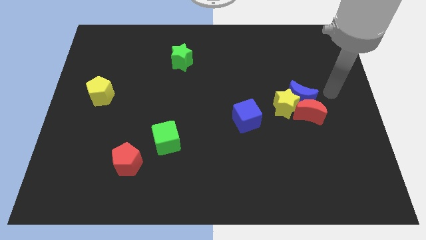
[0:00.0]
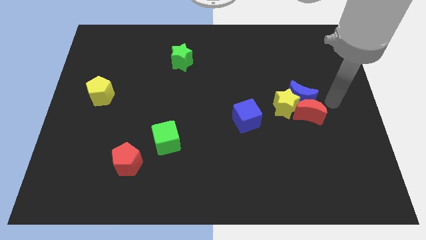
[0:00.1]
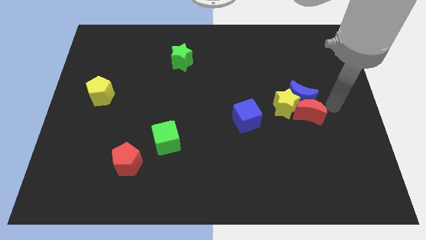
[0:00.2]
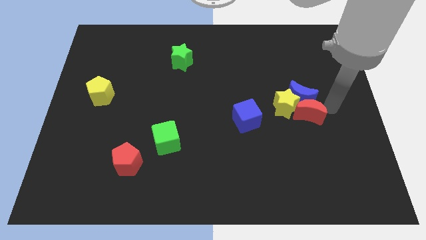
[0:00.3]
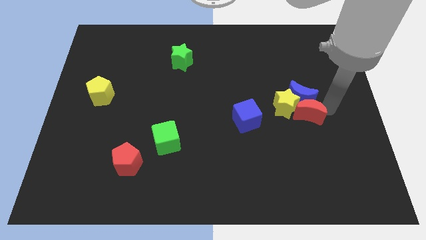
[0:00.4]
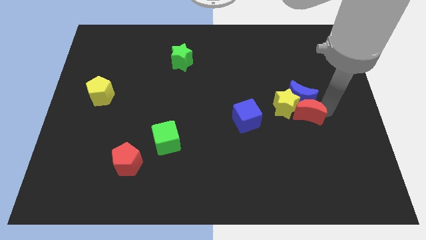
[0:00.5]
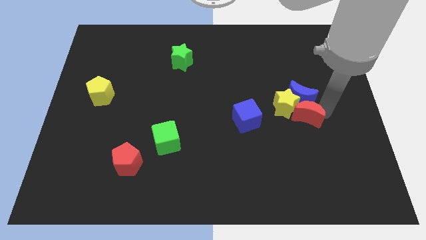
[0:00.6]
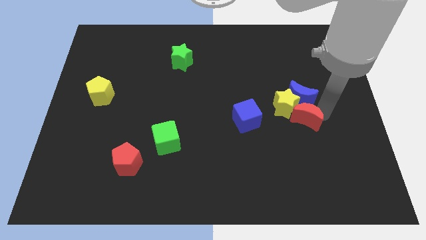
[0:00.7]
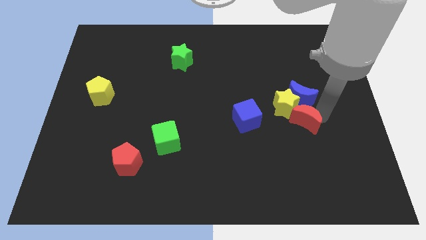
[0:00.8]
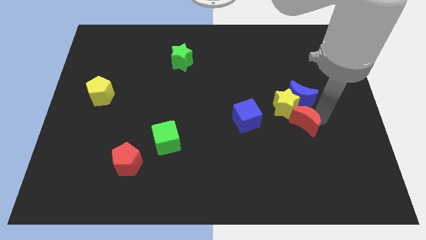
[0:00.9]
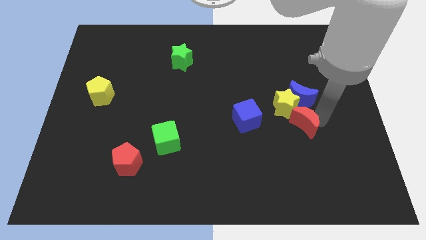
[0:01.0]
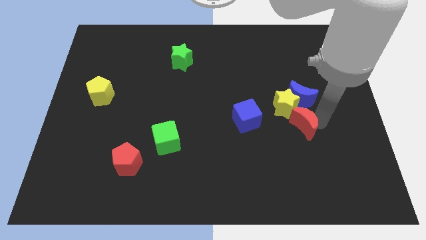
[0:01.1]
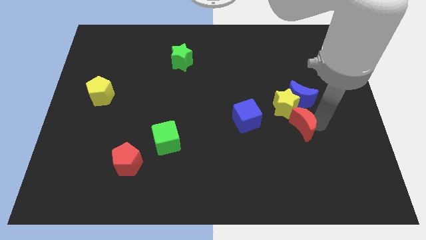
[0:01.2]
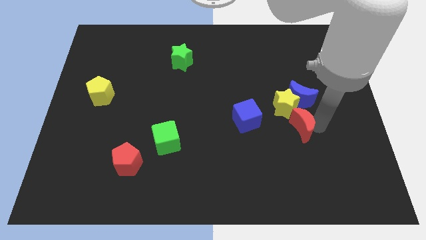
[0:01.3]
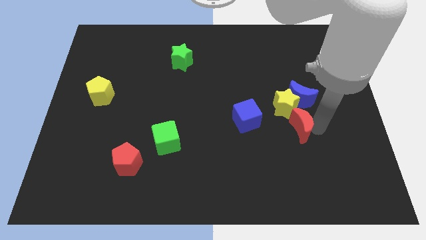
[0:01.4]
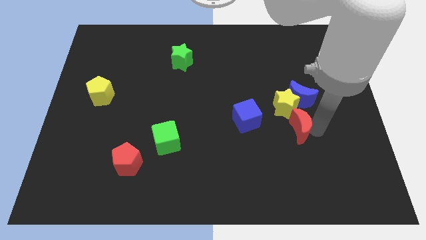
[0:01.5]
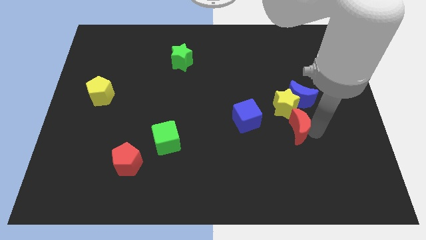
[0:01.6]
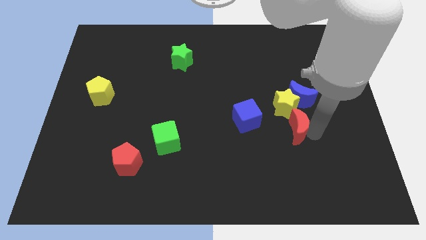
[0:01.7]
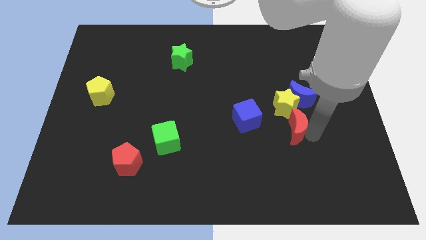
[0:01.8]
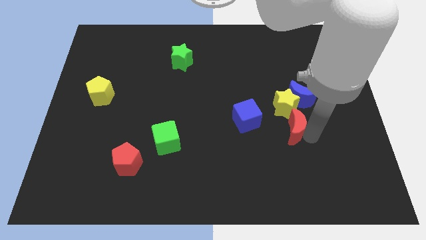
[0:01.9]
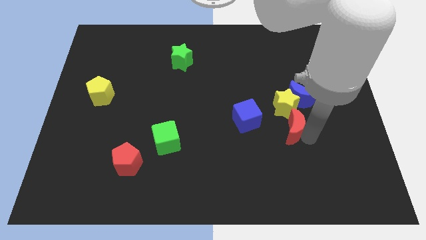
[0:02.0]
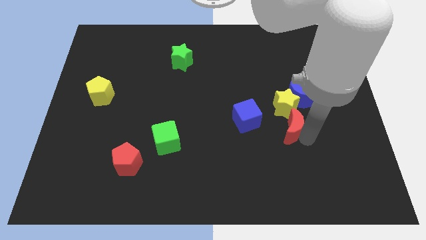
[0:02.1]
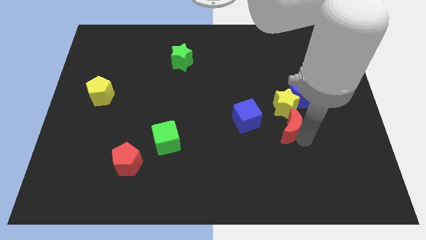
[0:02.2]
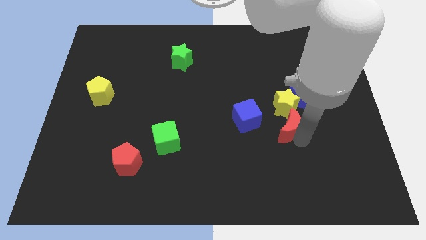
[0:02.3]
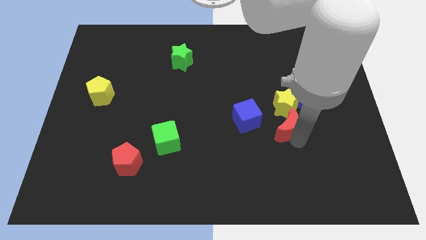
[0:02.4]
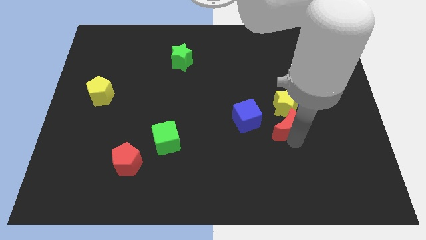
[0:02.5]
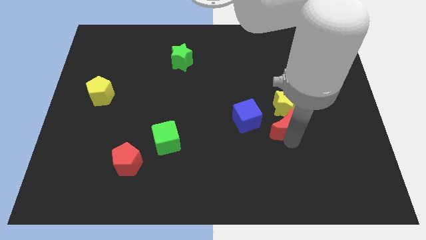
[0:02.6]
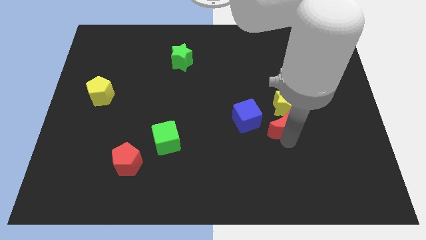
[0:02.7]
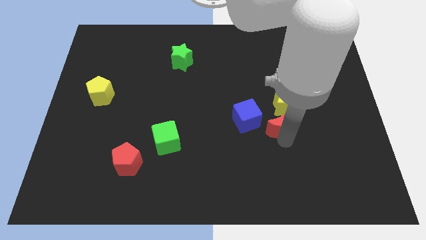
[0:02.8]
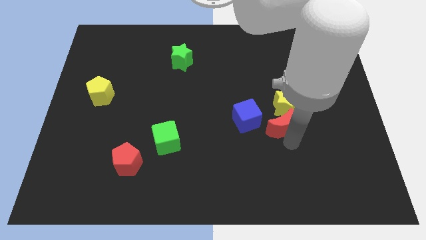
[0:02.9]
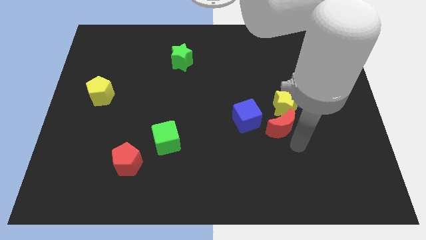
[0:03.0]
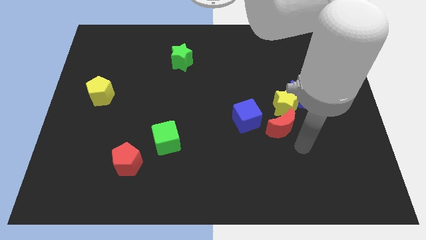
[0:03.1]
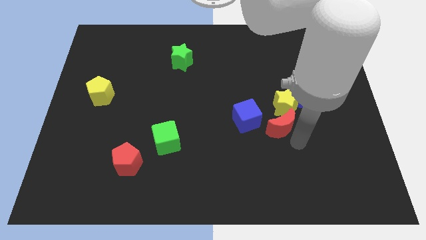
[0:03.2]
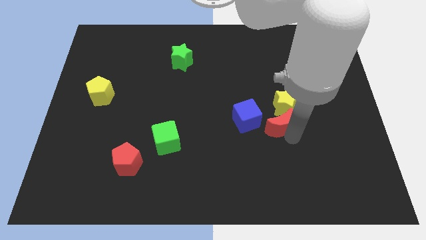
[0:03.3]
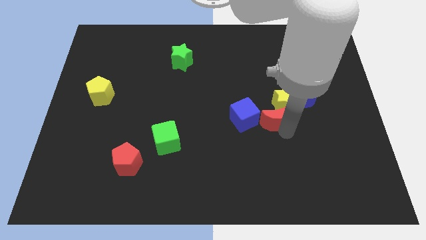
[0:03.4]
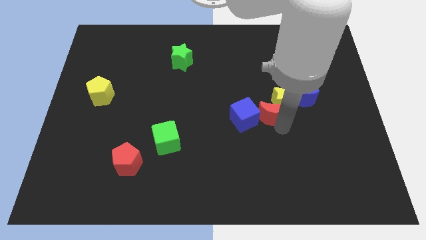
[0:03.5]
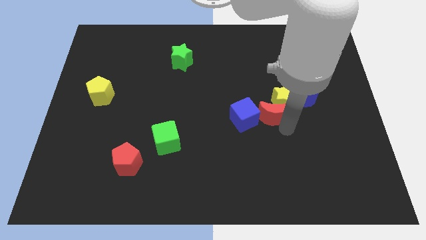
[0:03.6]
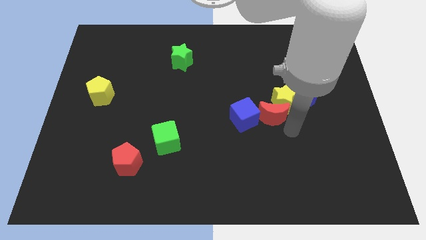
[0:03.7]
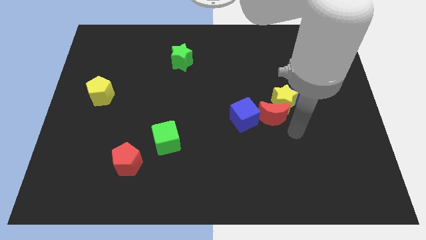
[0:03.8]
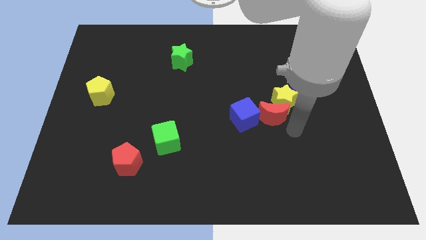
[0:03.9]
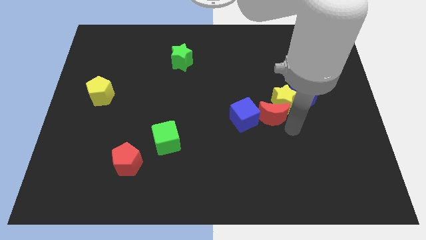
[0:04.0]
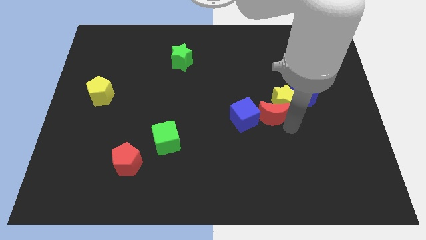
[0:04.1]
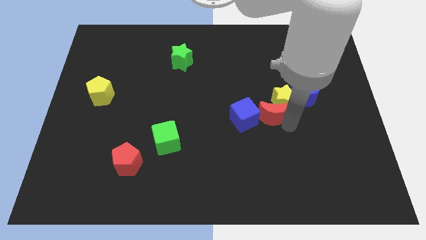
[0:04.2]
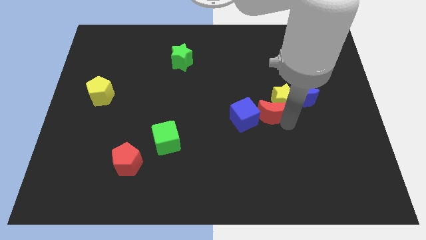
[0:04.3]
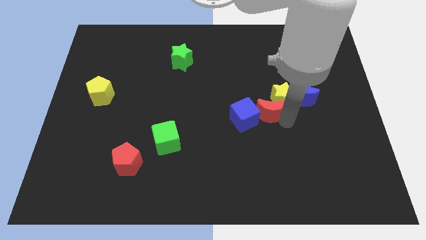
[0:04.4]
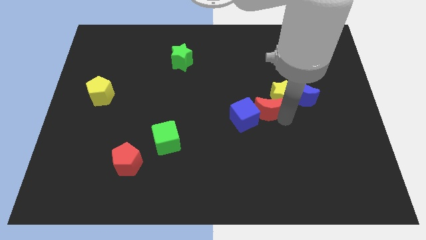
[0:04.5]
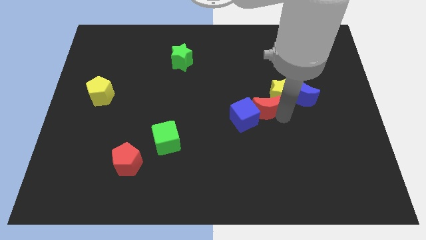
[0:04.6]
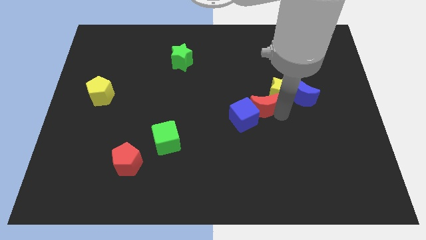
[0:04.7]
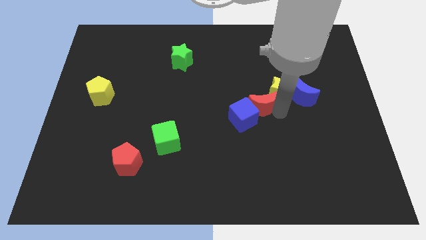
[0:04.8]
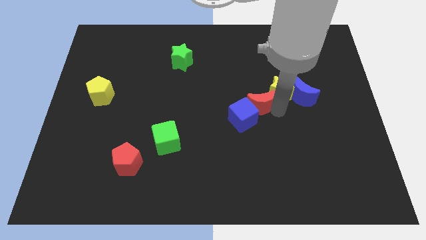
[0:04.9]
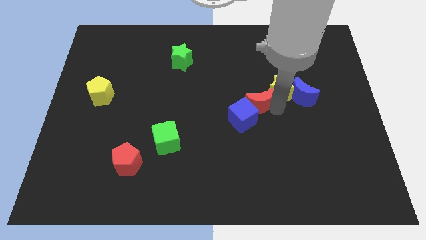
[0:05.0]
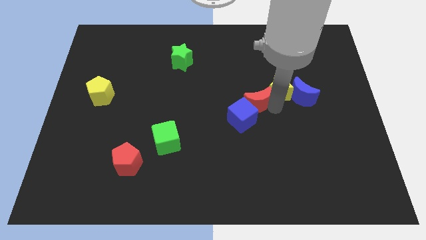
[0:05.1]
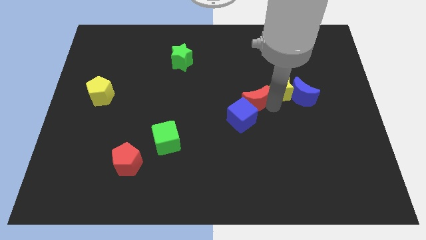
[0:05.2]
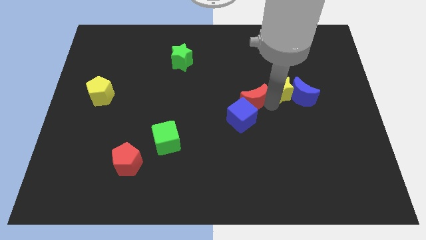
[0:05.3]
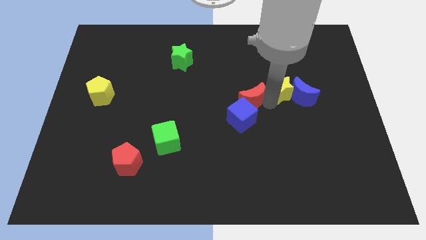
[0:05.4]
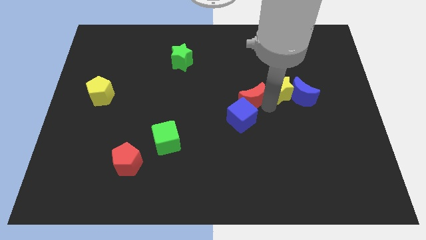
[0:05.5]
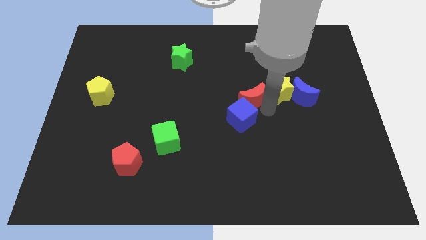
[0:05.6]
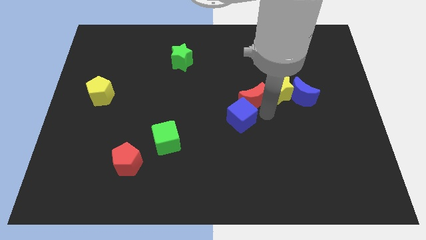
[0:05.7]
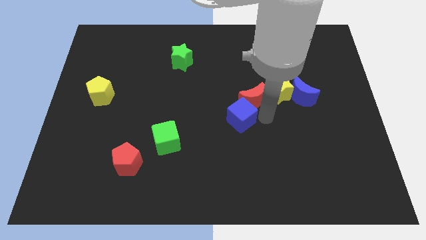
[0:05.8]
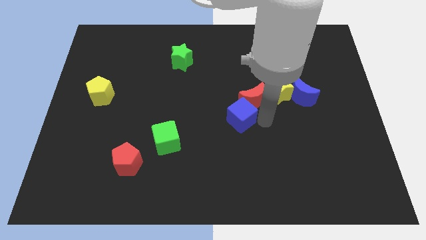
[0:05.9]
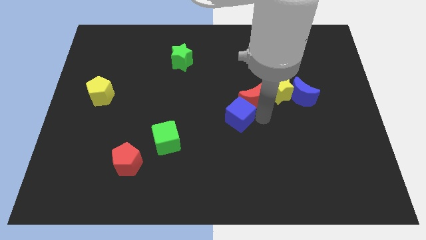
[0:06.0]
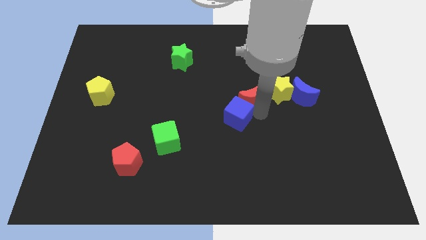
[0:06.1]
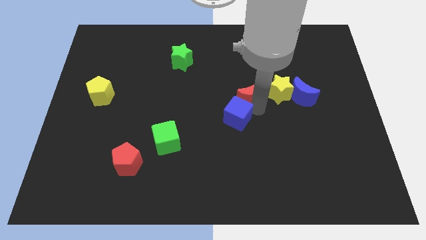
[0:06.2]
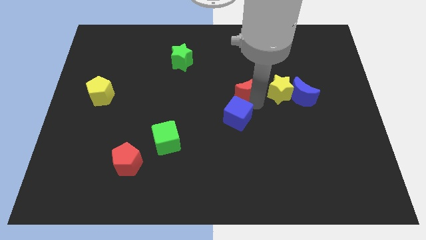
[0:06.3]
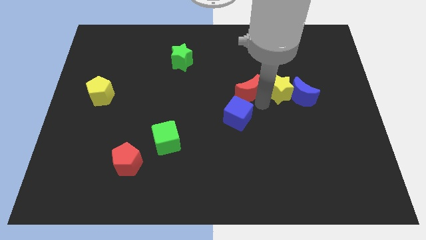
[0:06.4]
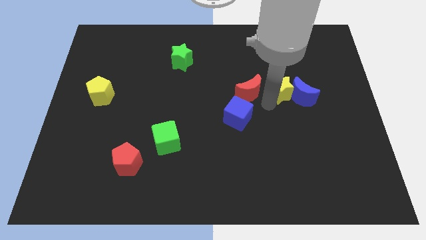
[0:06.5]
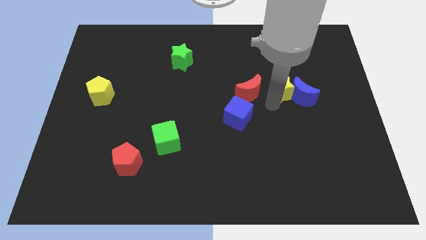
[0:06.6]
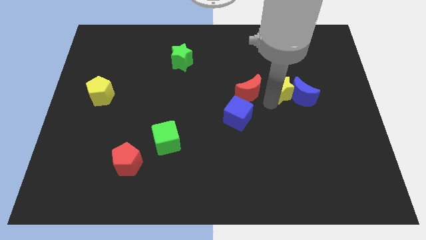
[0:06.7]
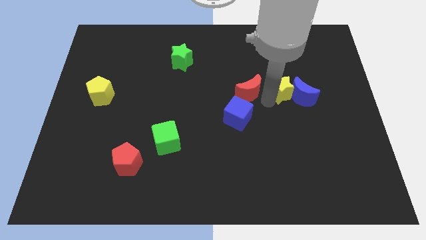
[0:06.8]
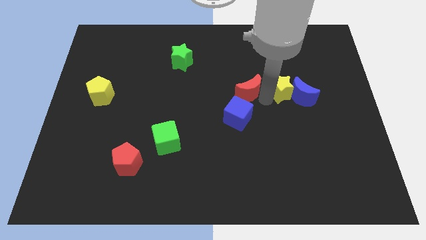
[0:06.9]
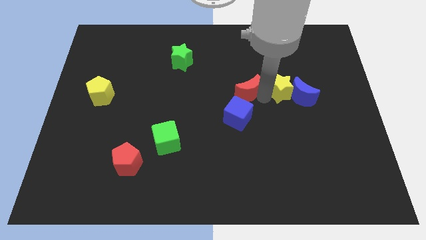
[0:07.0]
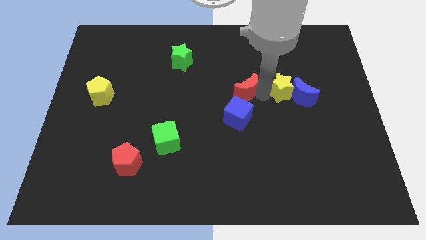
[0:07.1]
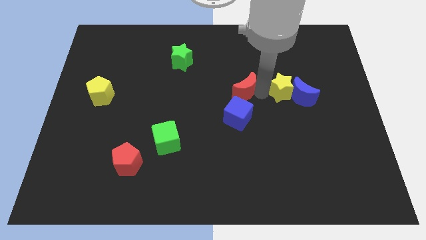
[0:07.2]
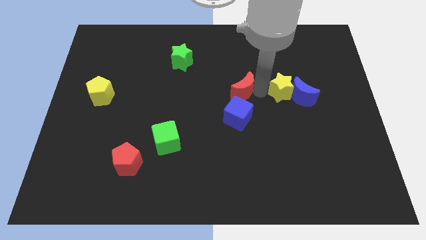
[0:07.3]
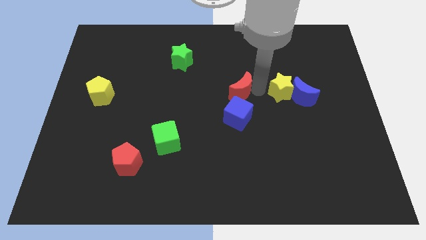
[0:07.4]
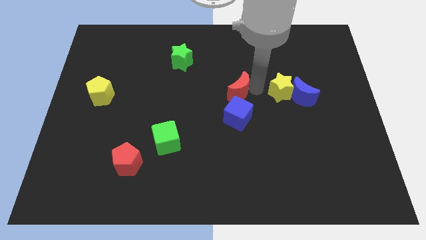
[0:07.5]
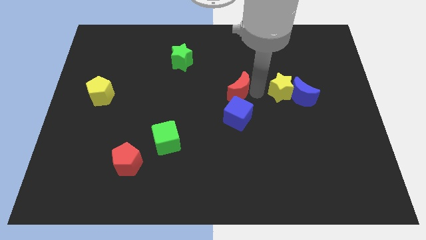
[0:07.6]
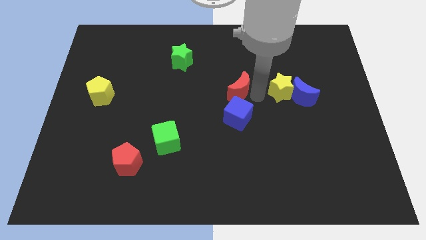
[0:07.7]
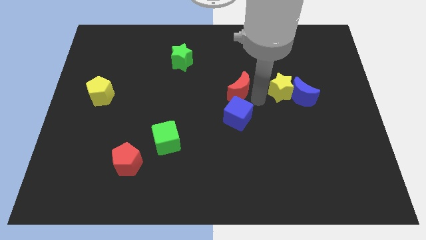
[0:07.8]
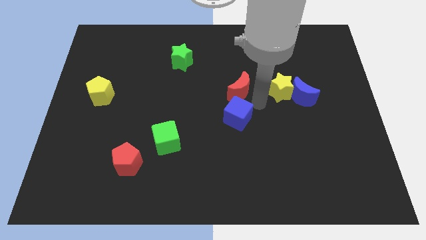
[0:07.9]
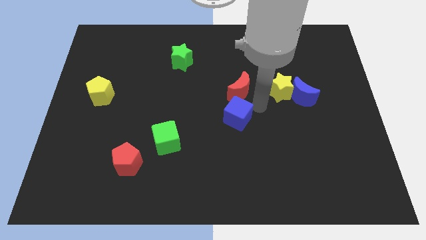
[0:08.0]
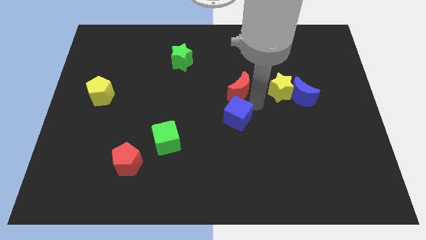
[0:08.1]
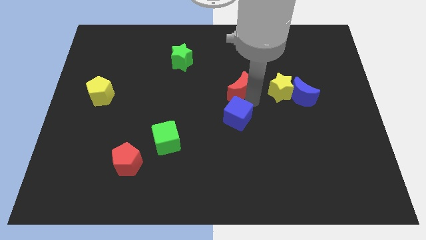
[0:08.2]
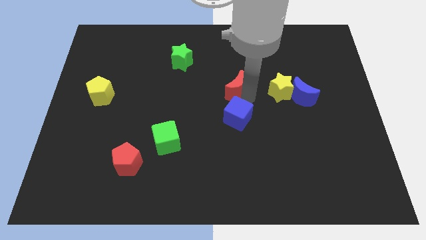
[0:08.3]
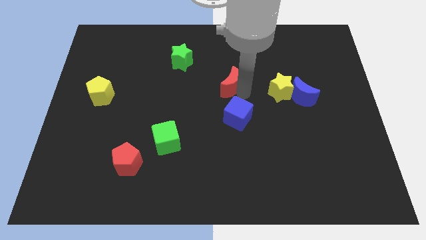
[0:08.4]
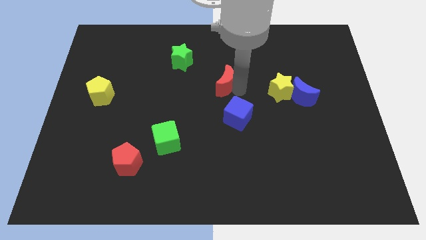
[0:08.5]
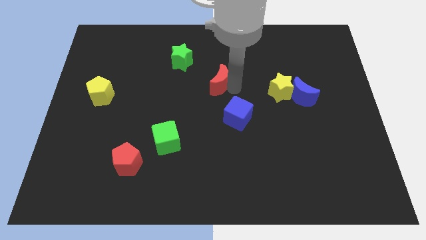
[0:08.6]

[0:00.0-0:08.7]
slide the red moon to the bottom right side of the green star
